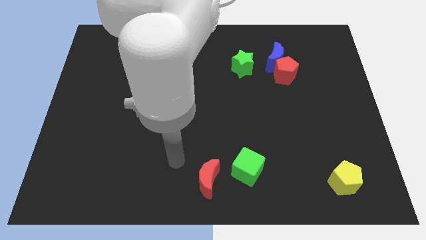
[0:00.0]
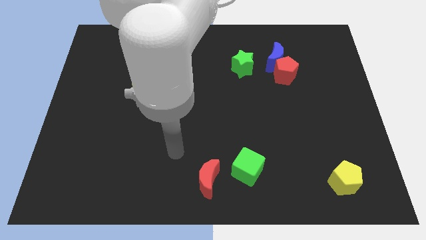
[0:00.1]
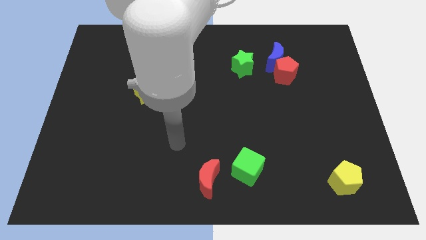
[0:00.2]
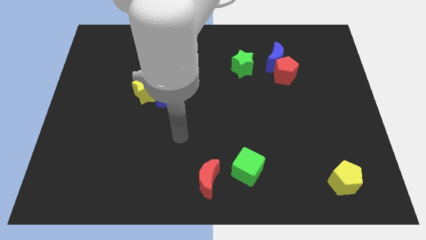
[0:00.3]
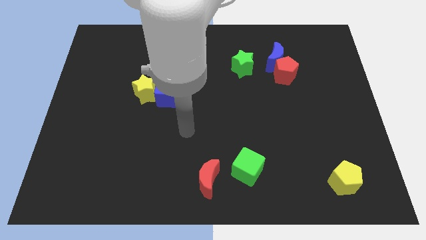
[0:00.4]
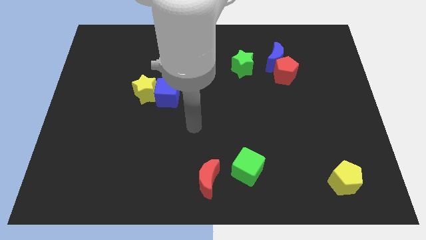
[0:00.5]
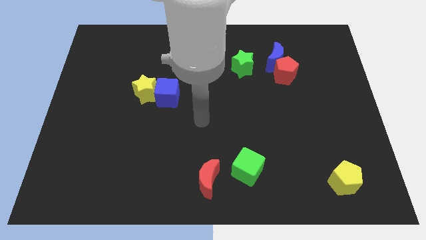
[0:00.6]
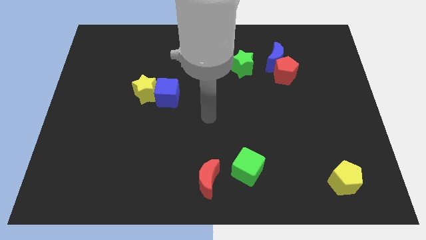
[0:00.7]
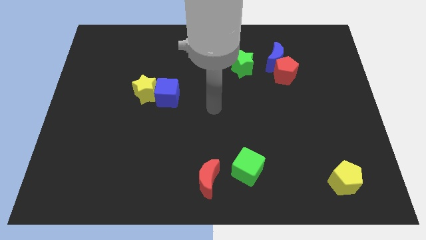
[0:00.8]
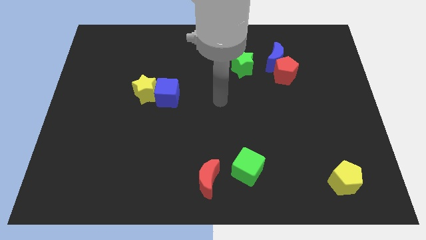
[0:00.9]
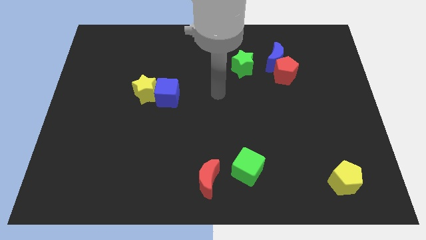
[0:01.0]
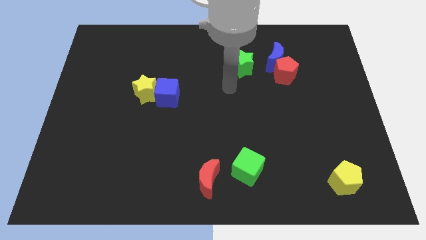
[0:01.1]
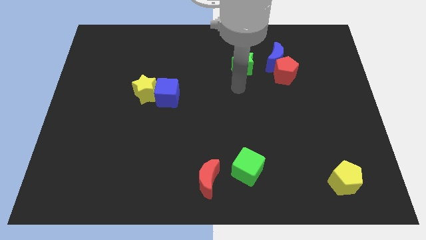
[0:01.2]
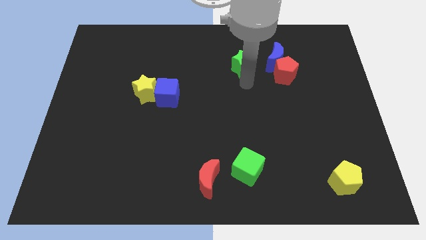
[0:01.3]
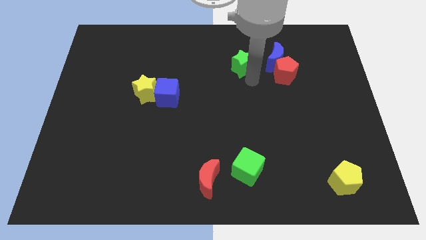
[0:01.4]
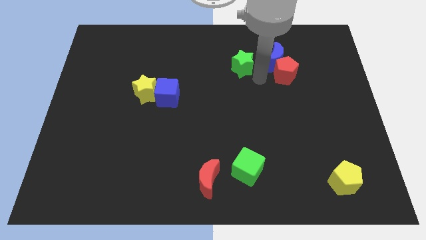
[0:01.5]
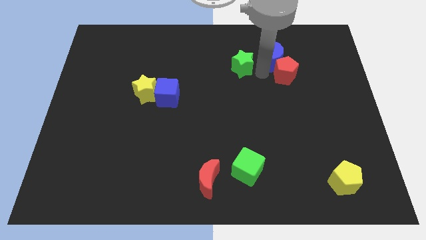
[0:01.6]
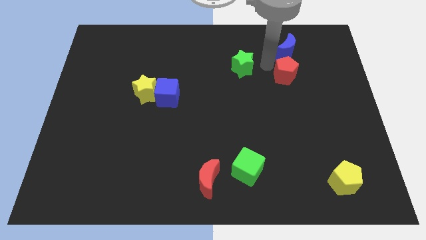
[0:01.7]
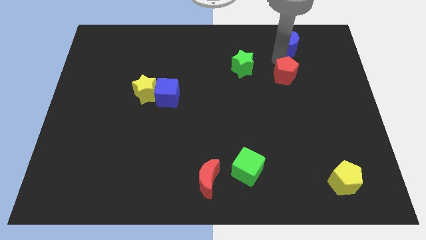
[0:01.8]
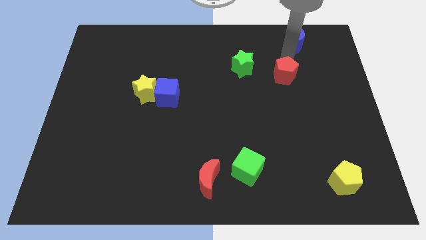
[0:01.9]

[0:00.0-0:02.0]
pull the red pentagon apart from the blue moon

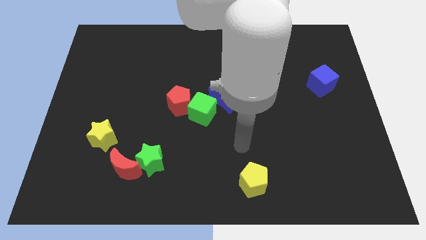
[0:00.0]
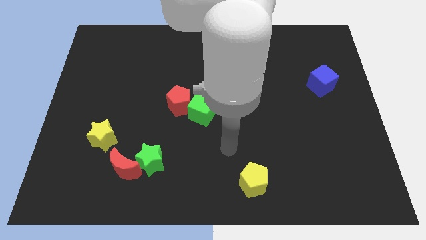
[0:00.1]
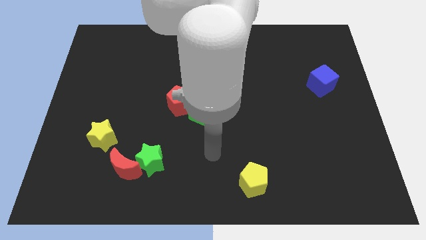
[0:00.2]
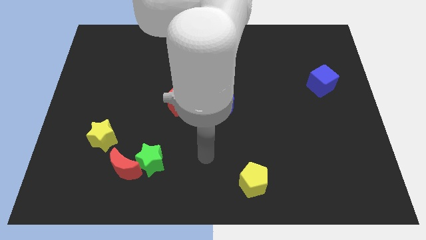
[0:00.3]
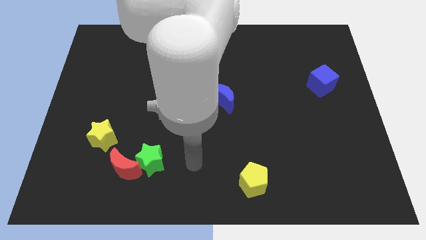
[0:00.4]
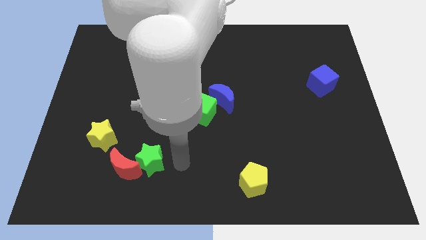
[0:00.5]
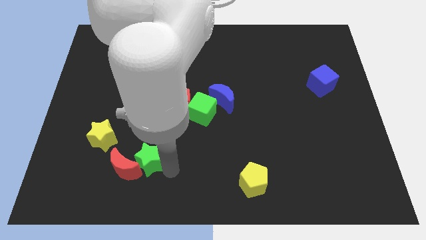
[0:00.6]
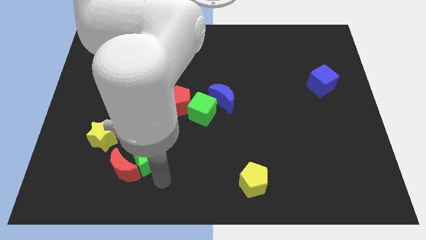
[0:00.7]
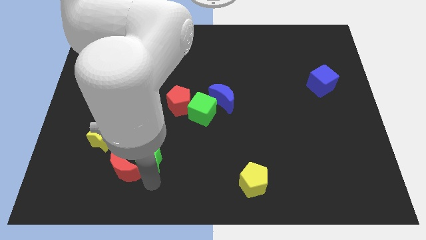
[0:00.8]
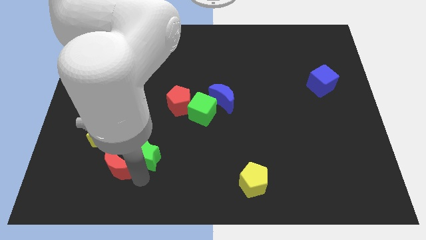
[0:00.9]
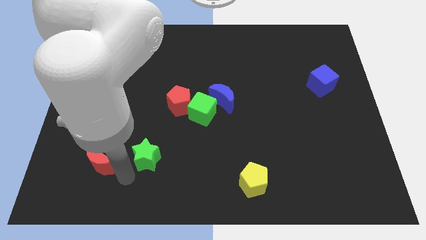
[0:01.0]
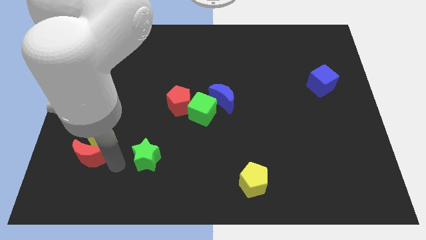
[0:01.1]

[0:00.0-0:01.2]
pull the green star apart from the red moon

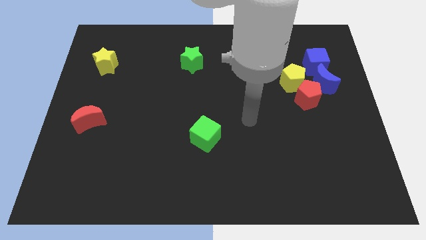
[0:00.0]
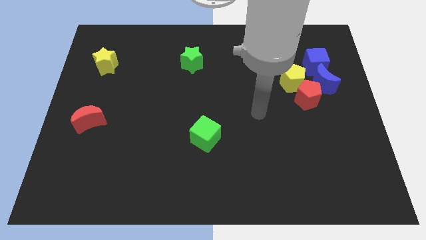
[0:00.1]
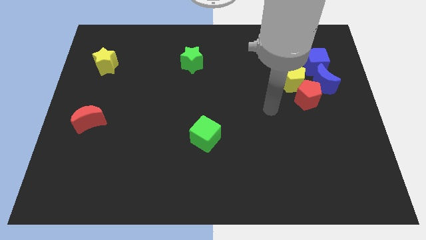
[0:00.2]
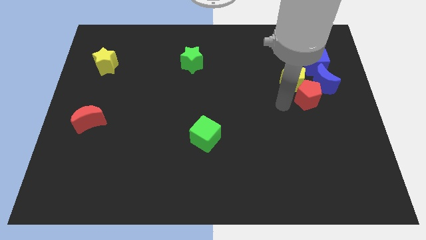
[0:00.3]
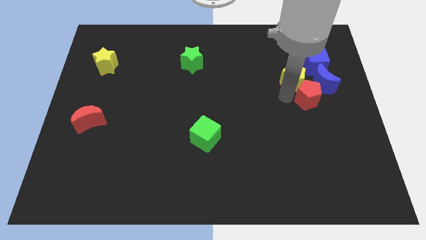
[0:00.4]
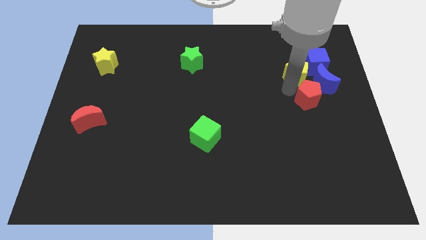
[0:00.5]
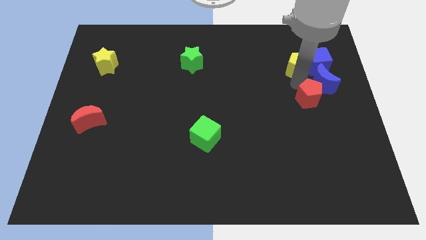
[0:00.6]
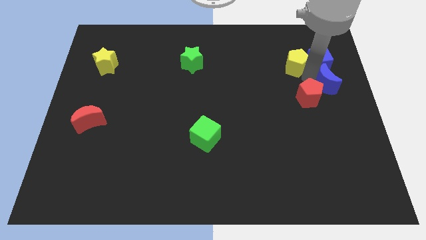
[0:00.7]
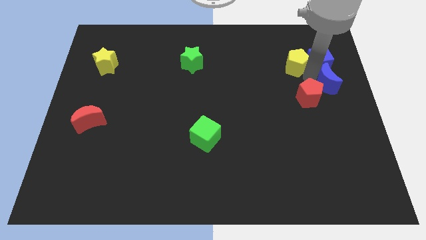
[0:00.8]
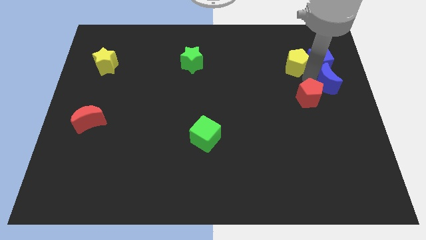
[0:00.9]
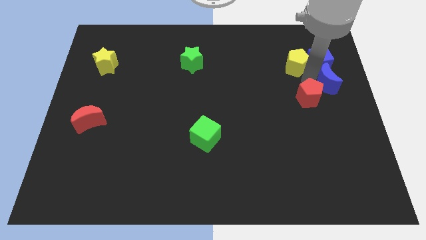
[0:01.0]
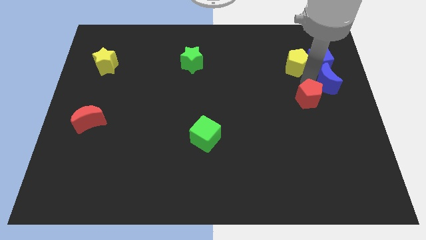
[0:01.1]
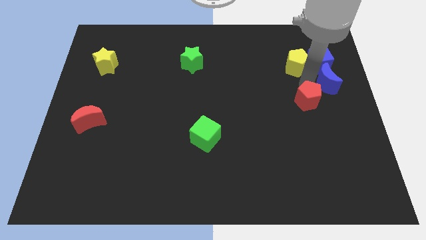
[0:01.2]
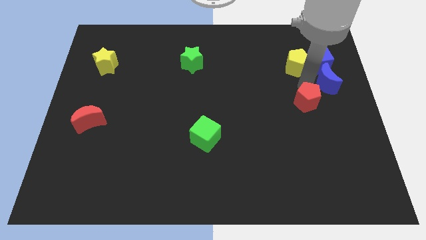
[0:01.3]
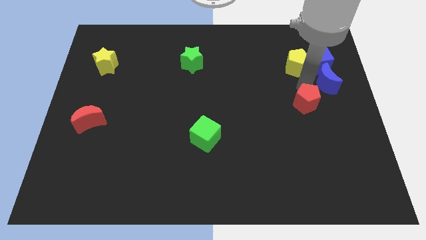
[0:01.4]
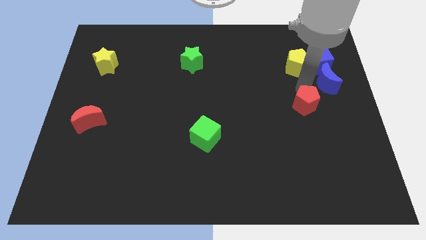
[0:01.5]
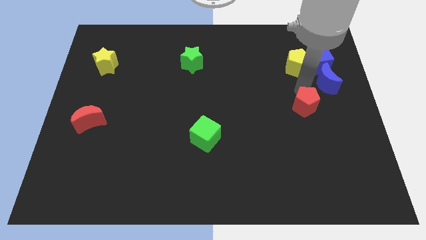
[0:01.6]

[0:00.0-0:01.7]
separate the red pentagon from the yellow pentagon and blue moon

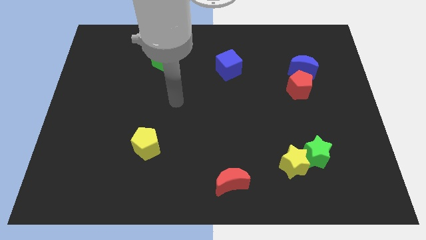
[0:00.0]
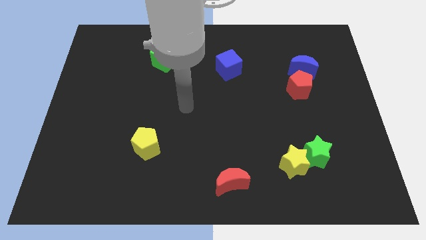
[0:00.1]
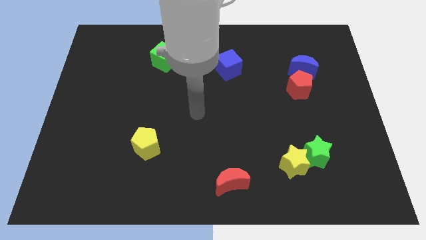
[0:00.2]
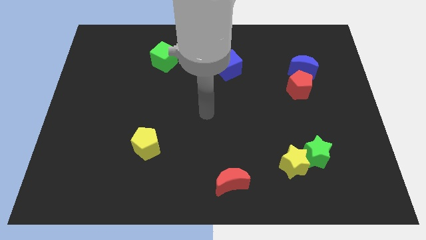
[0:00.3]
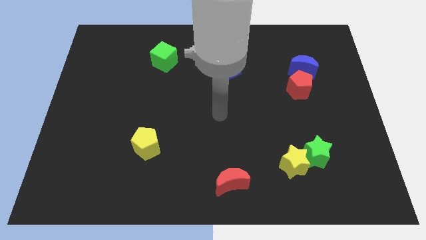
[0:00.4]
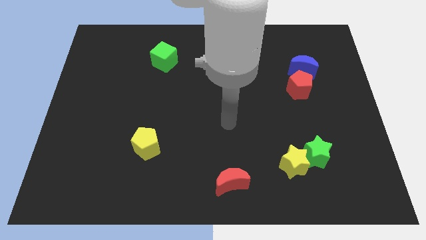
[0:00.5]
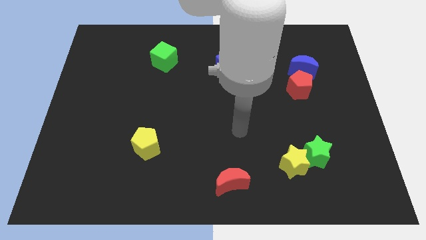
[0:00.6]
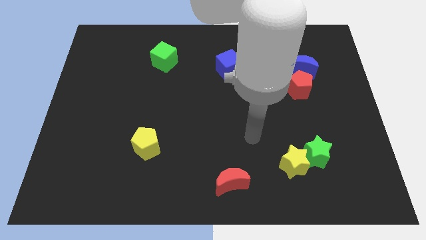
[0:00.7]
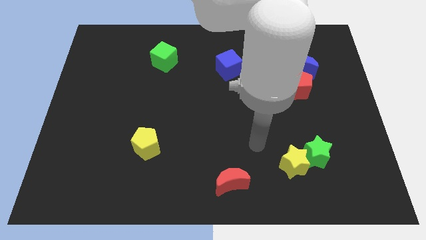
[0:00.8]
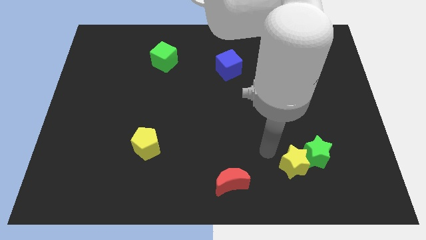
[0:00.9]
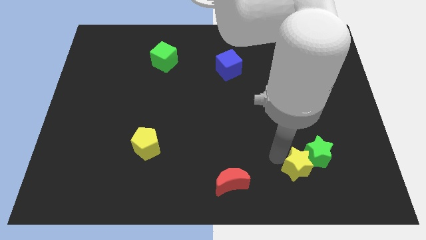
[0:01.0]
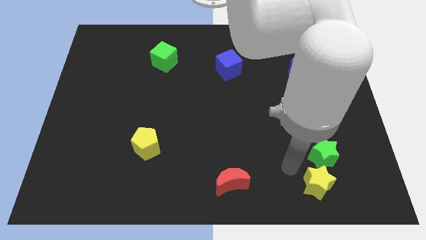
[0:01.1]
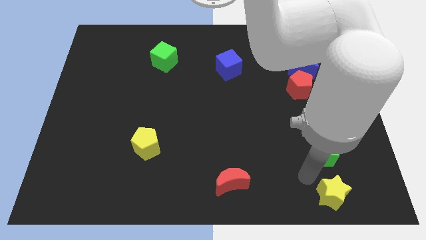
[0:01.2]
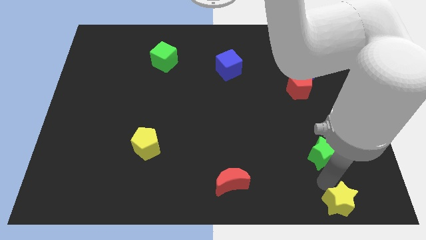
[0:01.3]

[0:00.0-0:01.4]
move the green star away from the yellow star

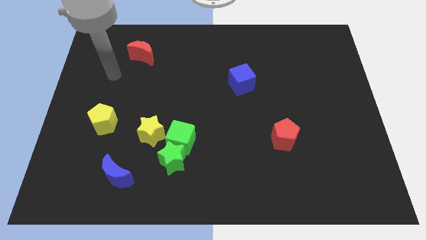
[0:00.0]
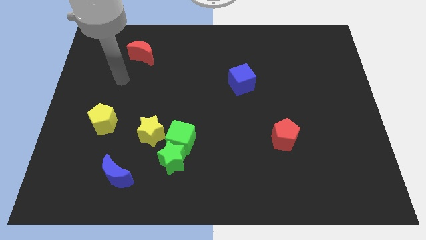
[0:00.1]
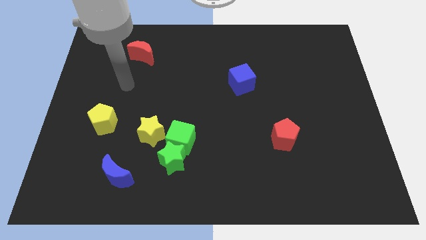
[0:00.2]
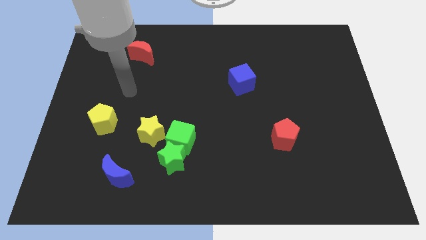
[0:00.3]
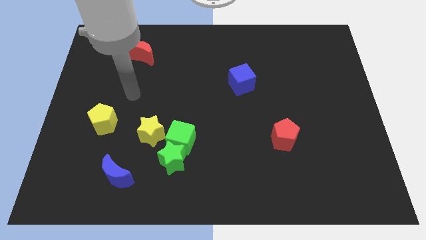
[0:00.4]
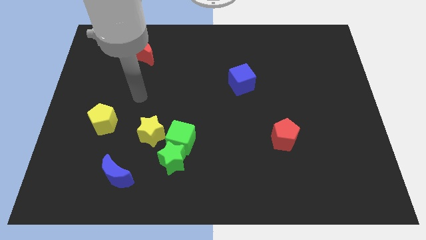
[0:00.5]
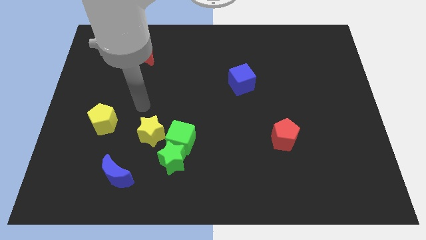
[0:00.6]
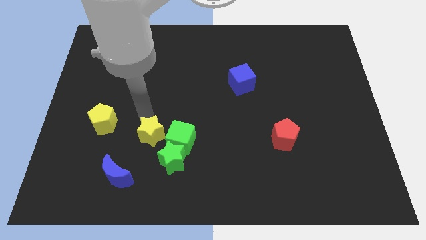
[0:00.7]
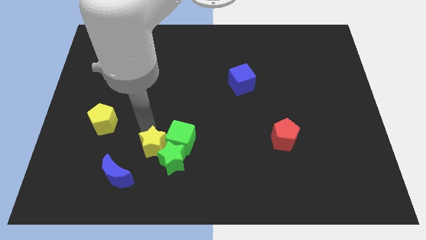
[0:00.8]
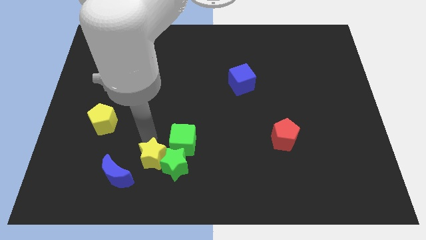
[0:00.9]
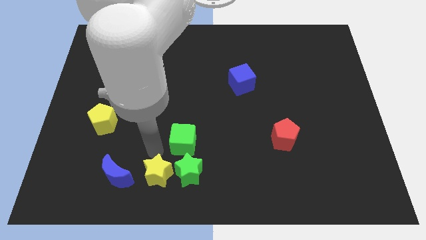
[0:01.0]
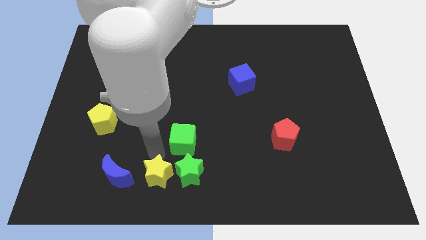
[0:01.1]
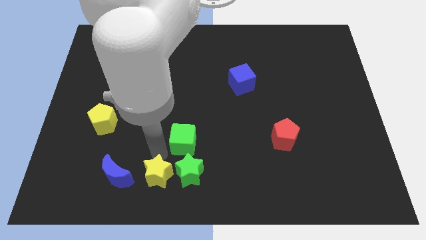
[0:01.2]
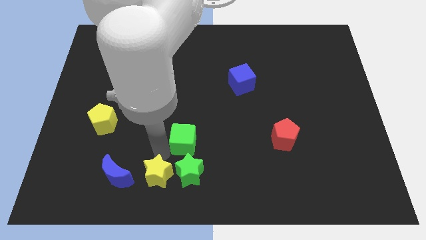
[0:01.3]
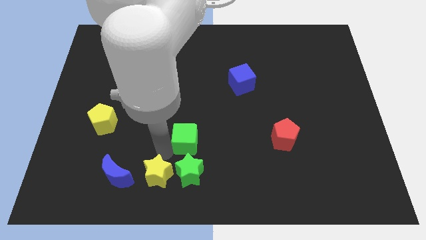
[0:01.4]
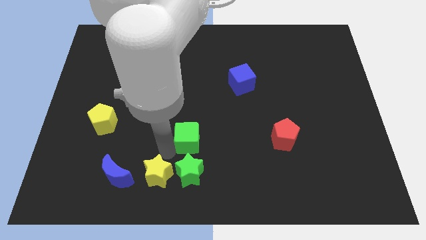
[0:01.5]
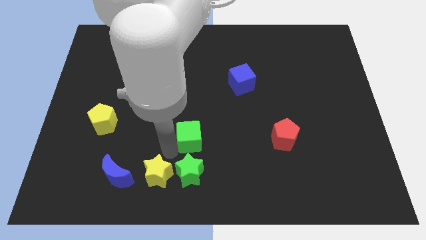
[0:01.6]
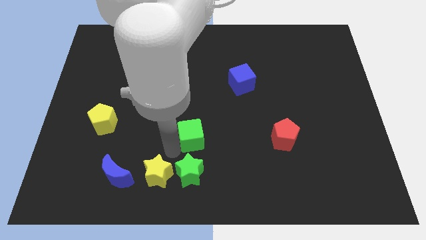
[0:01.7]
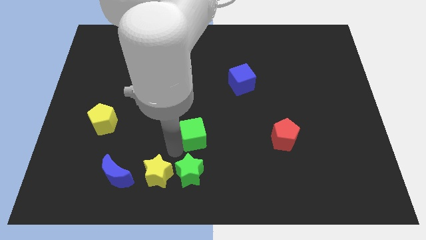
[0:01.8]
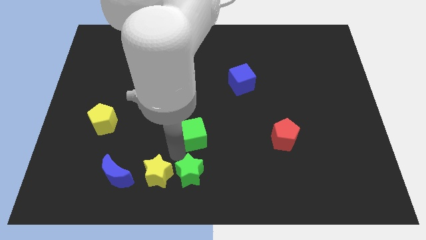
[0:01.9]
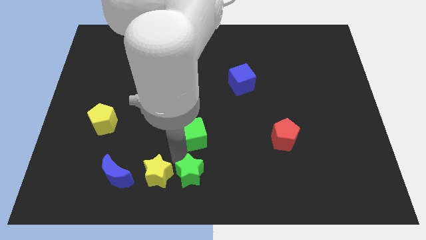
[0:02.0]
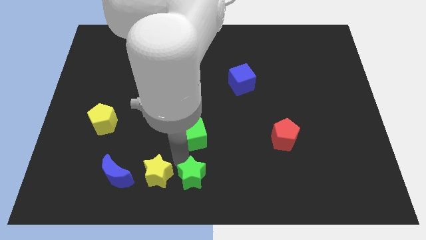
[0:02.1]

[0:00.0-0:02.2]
move the green cube away from the green star and yellow star

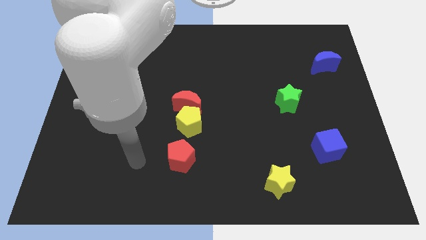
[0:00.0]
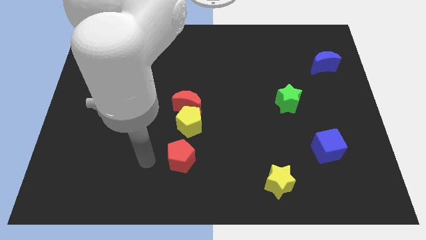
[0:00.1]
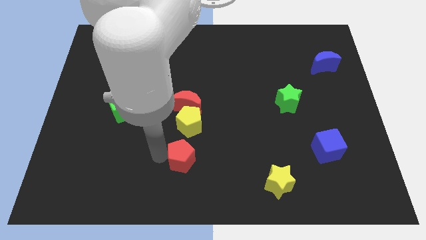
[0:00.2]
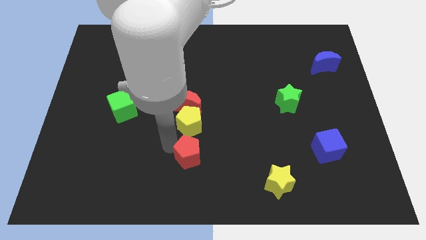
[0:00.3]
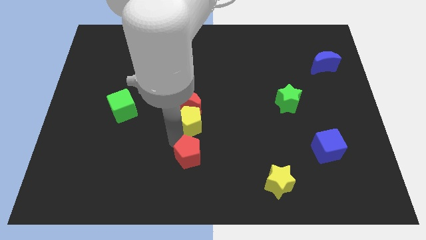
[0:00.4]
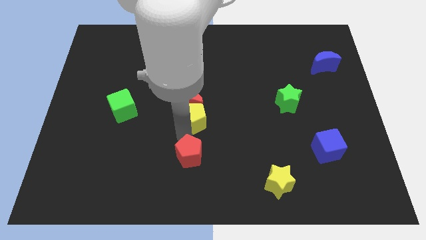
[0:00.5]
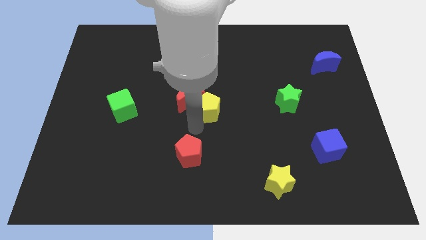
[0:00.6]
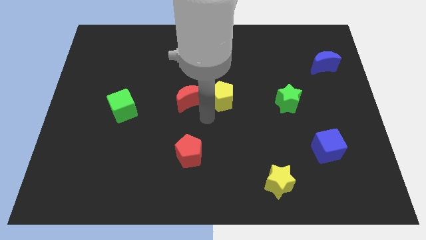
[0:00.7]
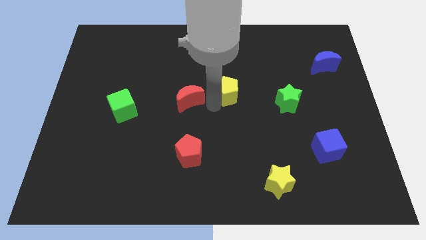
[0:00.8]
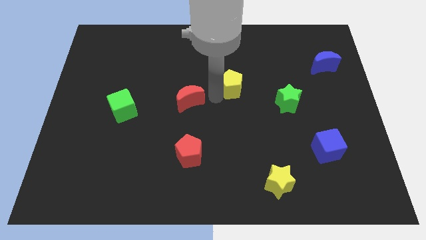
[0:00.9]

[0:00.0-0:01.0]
move the red moon away from the yellow pentagon
